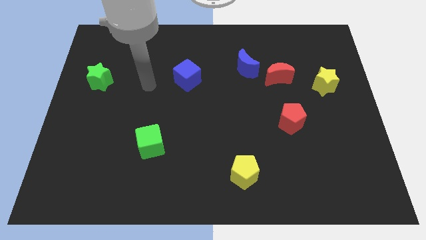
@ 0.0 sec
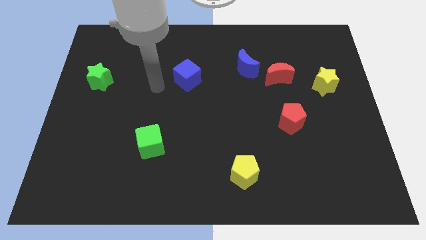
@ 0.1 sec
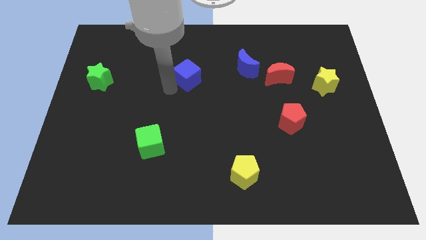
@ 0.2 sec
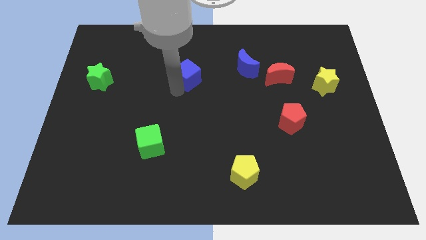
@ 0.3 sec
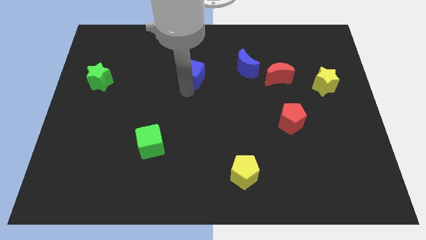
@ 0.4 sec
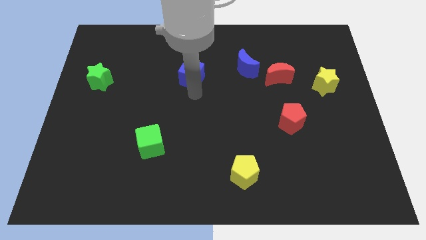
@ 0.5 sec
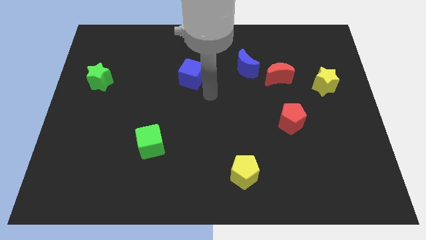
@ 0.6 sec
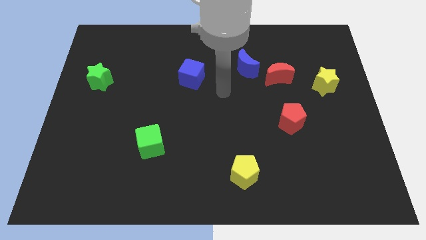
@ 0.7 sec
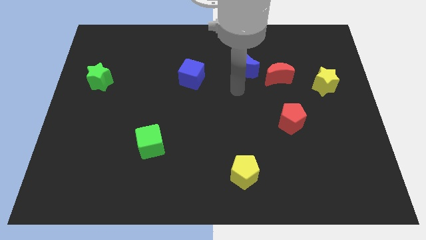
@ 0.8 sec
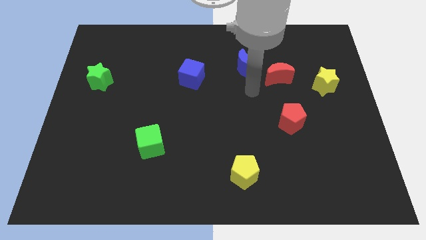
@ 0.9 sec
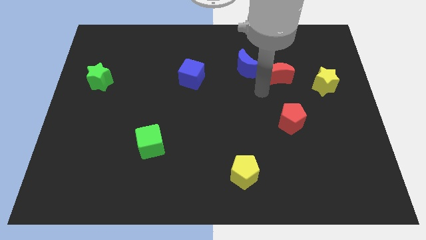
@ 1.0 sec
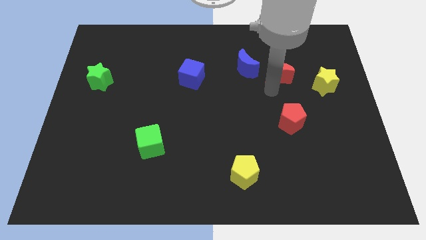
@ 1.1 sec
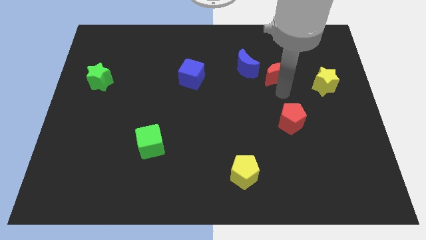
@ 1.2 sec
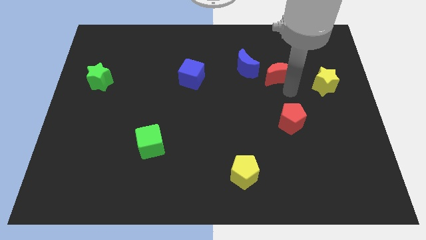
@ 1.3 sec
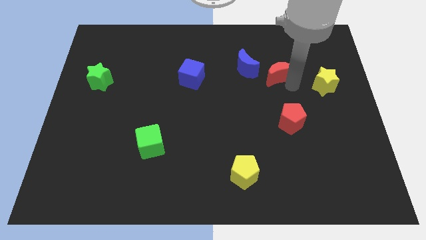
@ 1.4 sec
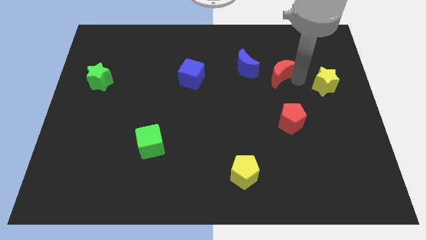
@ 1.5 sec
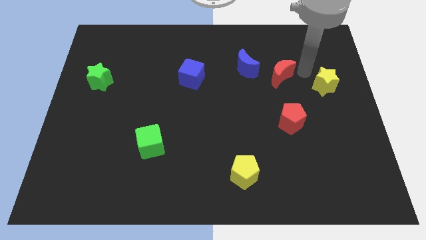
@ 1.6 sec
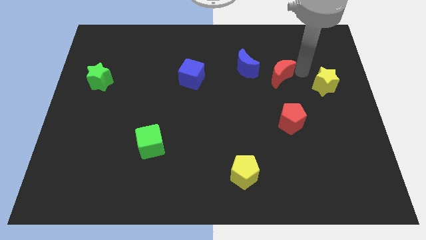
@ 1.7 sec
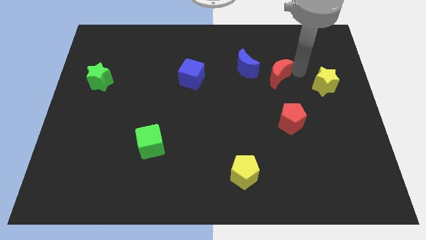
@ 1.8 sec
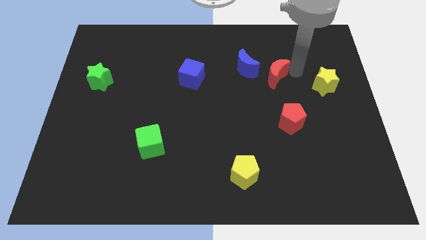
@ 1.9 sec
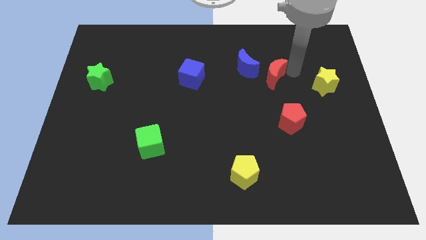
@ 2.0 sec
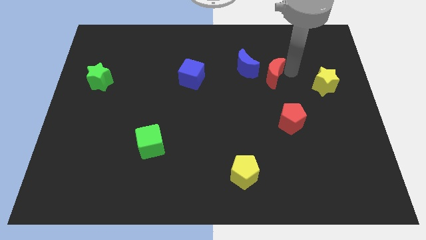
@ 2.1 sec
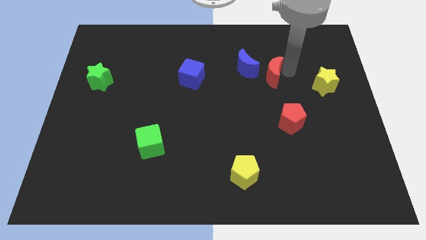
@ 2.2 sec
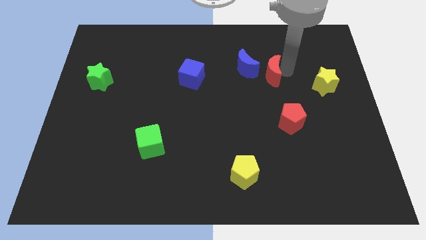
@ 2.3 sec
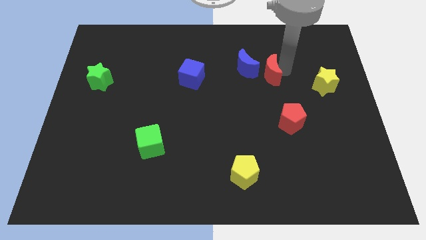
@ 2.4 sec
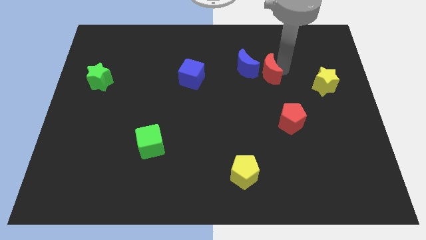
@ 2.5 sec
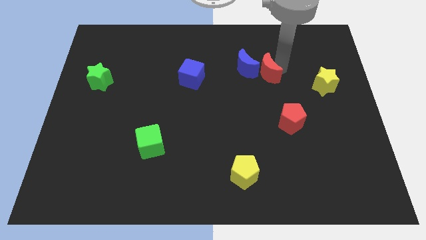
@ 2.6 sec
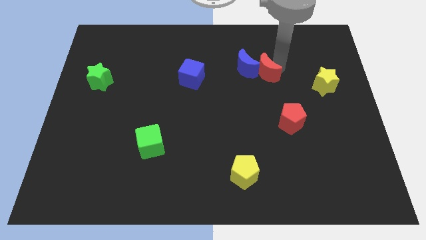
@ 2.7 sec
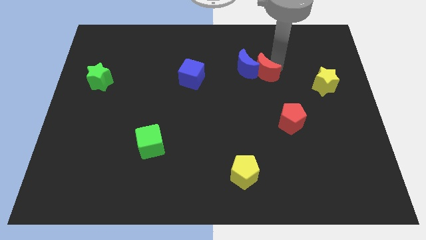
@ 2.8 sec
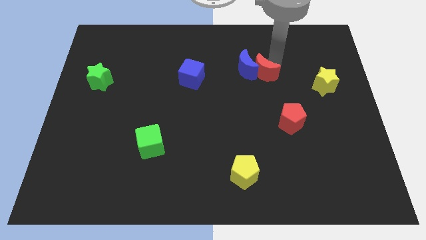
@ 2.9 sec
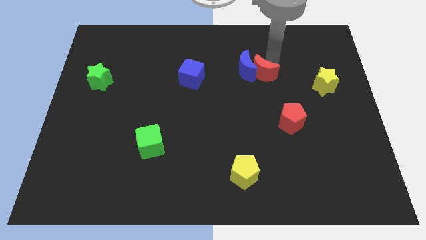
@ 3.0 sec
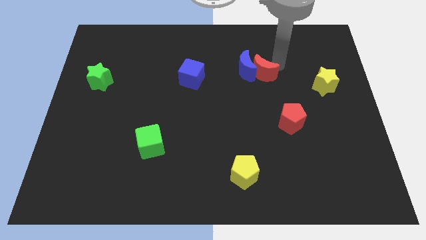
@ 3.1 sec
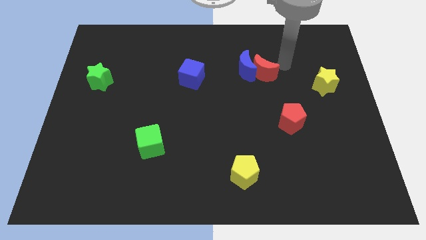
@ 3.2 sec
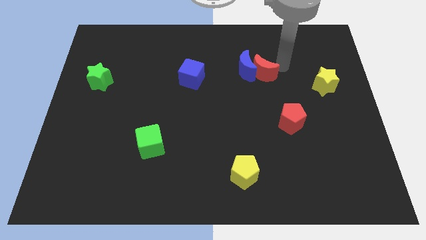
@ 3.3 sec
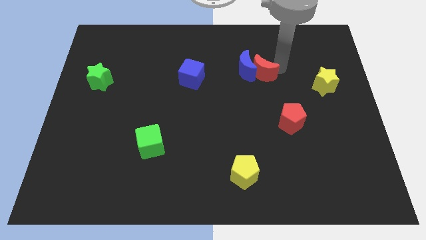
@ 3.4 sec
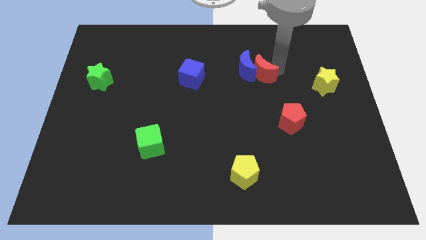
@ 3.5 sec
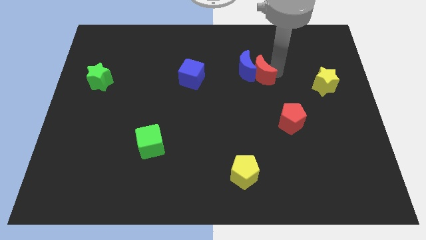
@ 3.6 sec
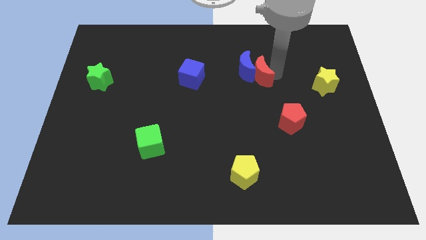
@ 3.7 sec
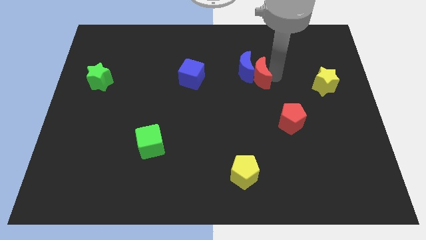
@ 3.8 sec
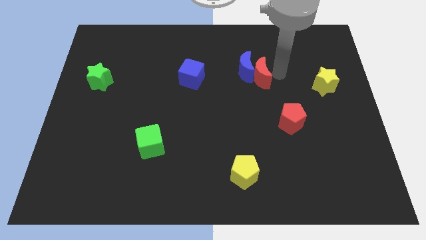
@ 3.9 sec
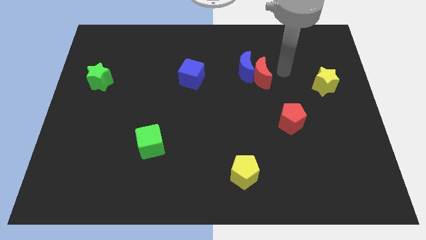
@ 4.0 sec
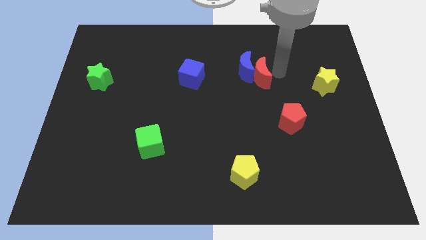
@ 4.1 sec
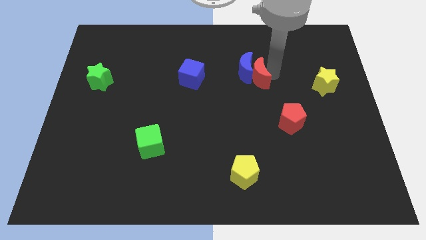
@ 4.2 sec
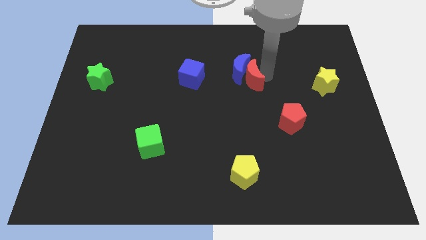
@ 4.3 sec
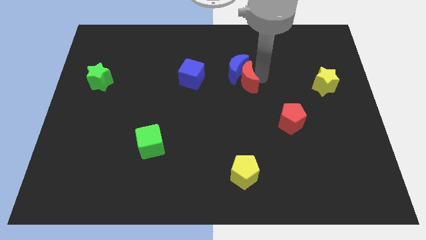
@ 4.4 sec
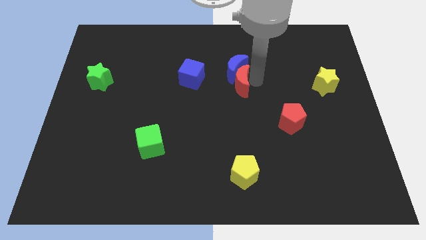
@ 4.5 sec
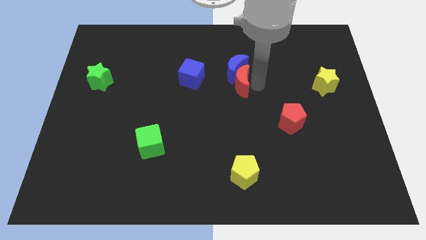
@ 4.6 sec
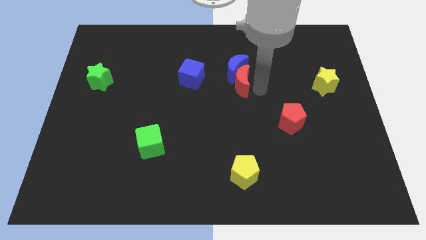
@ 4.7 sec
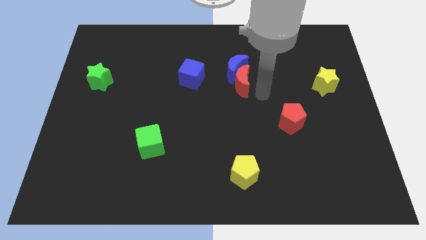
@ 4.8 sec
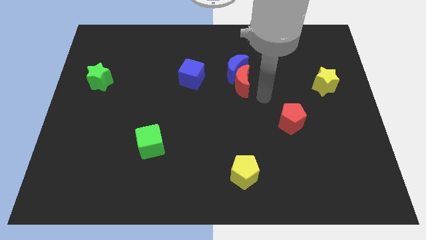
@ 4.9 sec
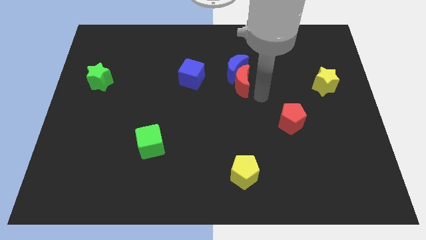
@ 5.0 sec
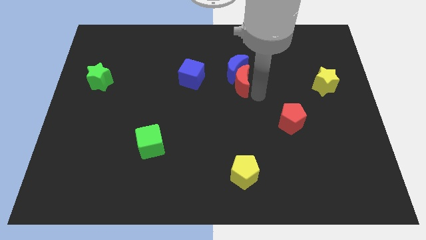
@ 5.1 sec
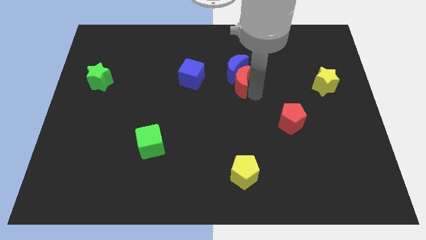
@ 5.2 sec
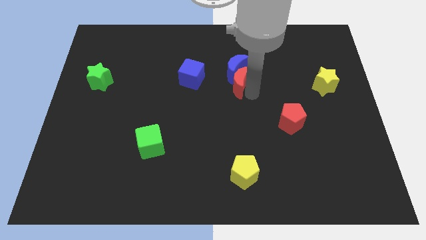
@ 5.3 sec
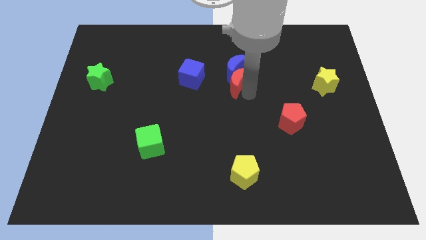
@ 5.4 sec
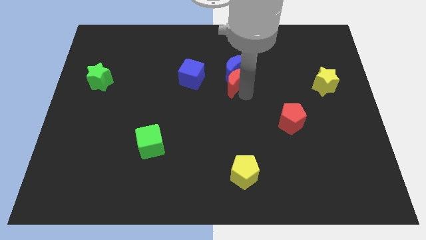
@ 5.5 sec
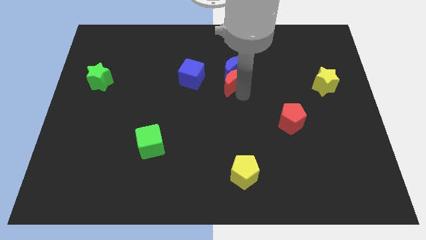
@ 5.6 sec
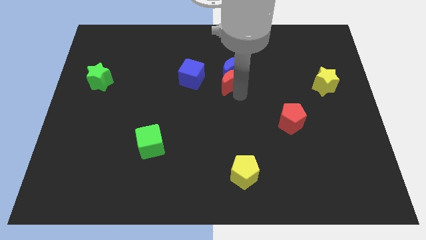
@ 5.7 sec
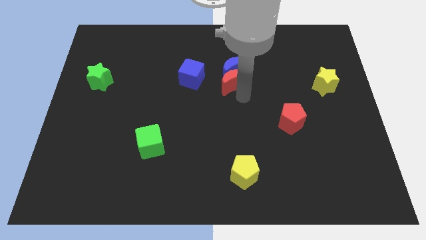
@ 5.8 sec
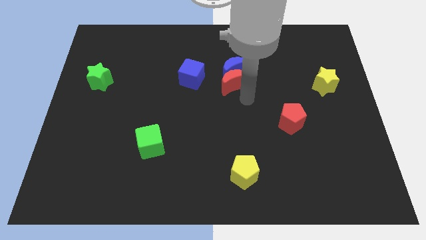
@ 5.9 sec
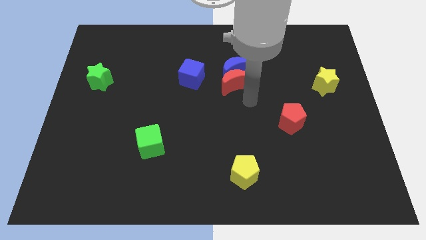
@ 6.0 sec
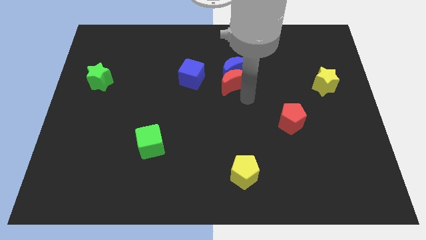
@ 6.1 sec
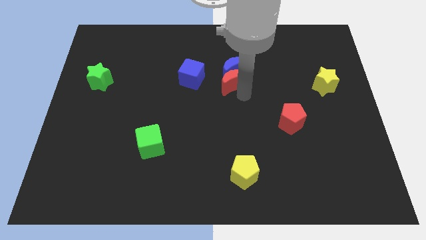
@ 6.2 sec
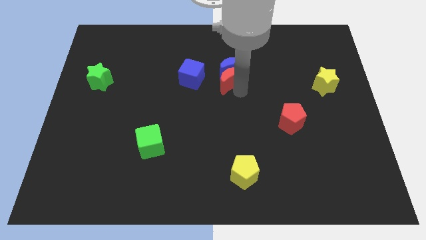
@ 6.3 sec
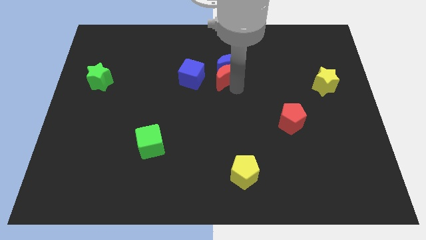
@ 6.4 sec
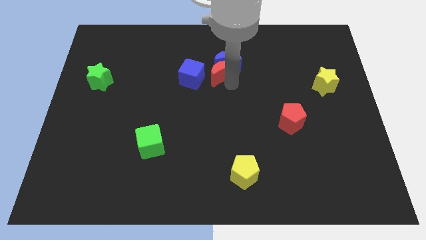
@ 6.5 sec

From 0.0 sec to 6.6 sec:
move the red moon to the top right side of the blue cube

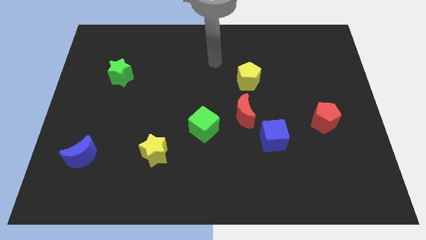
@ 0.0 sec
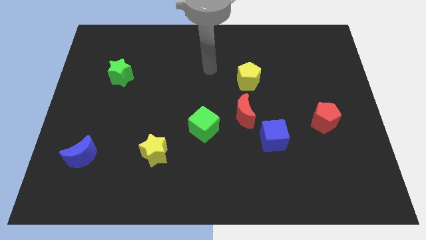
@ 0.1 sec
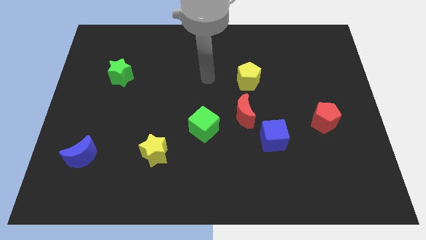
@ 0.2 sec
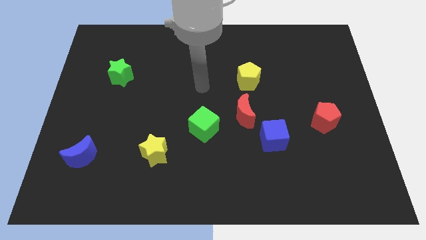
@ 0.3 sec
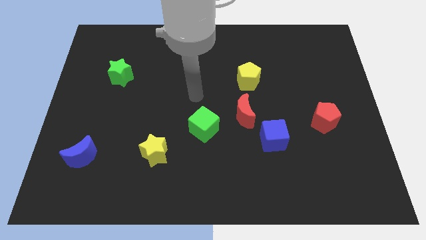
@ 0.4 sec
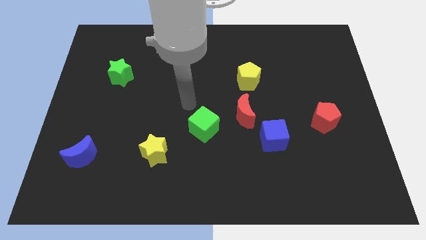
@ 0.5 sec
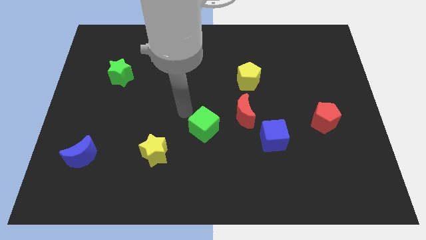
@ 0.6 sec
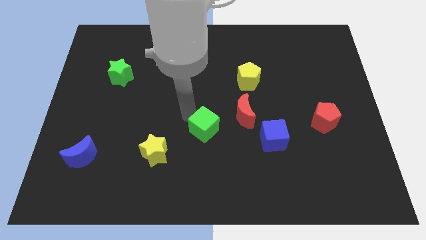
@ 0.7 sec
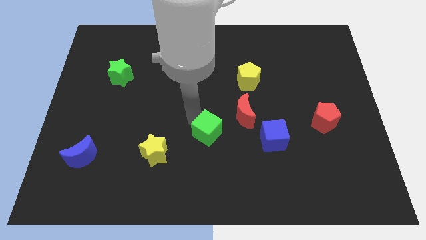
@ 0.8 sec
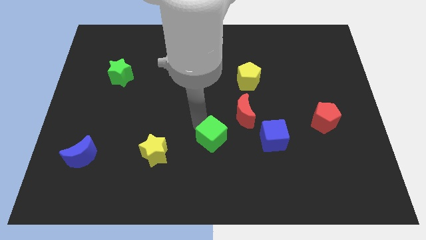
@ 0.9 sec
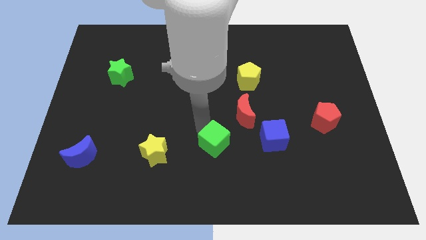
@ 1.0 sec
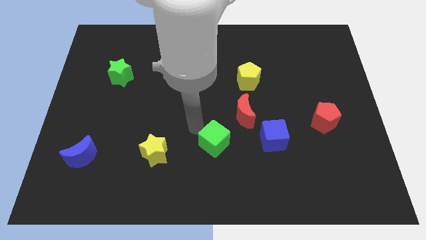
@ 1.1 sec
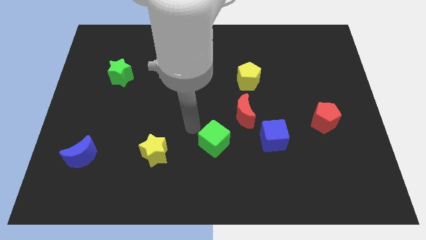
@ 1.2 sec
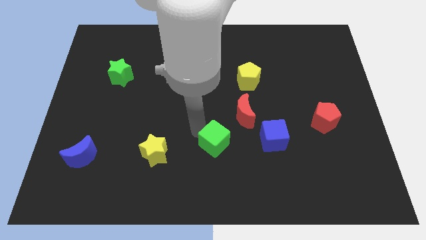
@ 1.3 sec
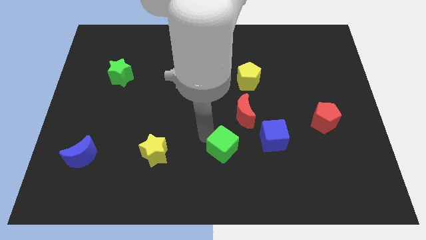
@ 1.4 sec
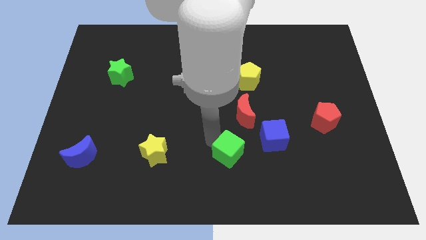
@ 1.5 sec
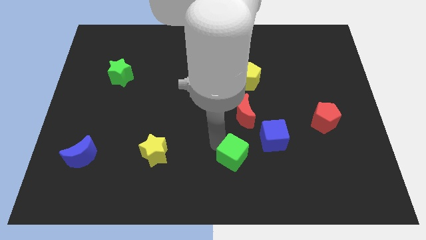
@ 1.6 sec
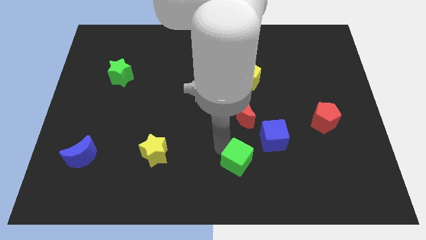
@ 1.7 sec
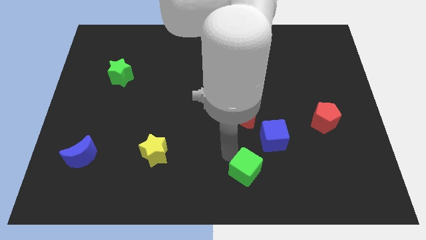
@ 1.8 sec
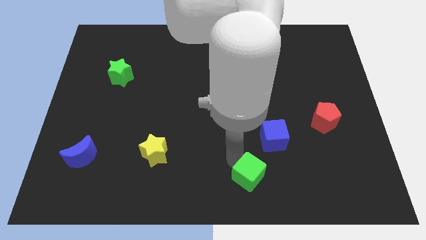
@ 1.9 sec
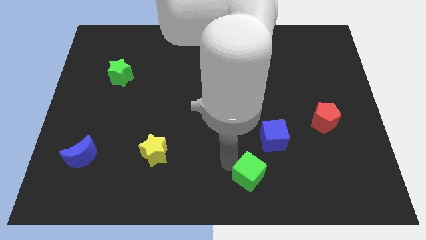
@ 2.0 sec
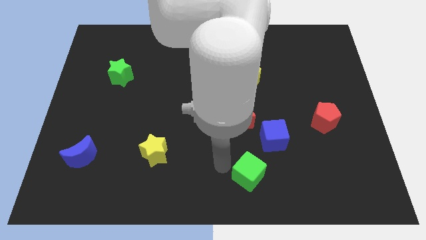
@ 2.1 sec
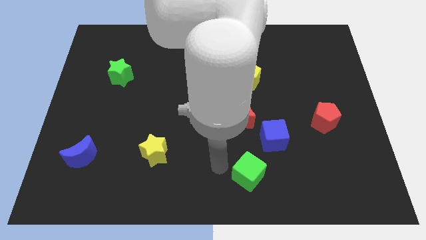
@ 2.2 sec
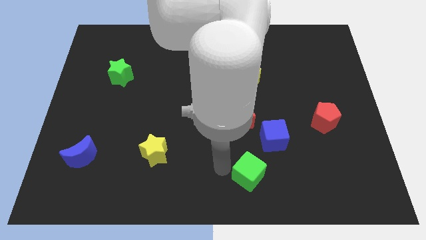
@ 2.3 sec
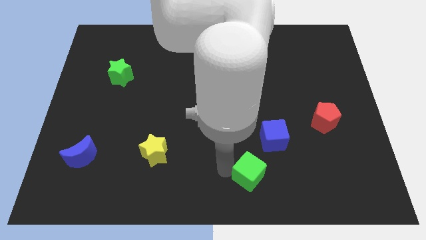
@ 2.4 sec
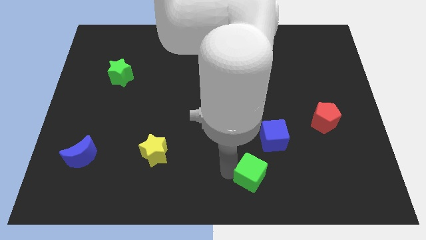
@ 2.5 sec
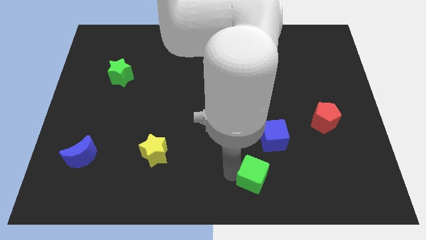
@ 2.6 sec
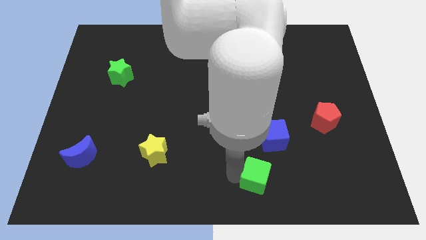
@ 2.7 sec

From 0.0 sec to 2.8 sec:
move the green cube below the blue cube
